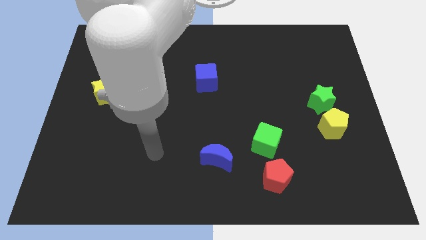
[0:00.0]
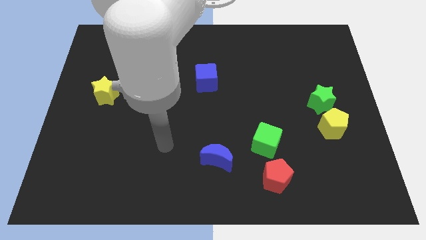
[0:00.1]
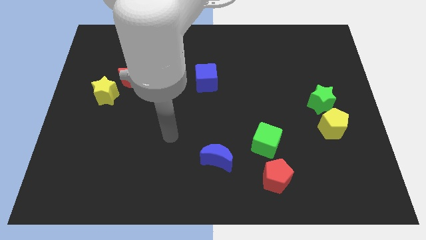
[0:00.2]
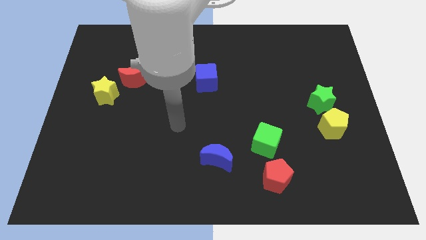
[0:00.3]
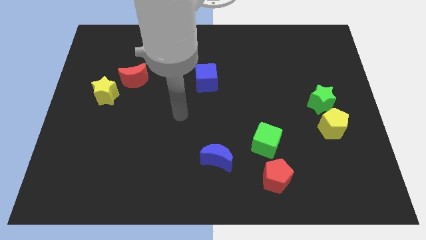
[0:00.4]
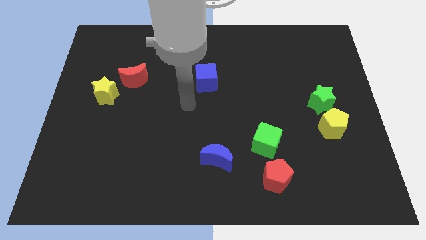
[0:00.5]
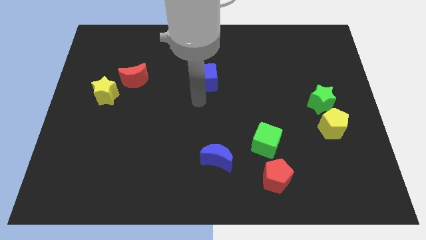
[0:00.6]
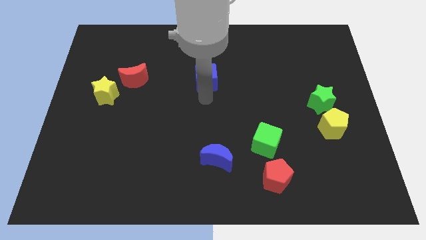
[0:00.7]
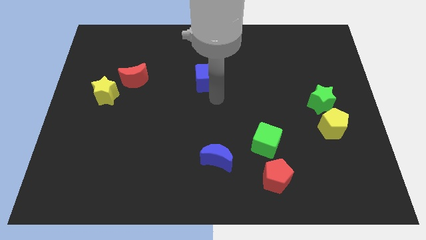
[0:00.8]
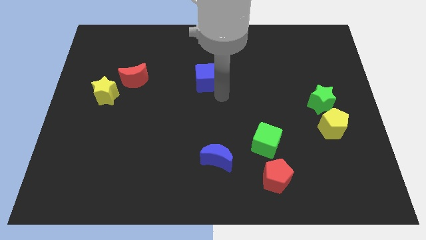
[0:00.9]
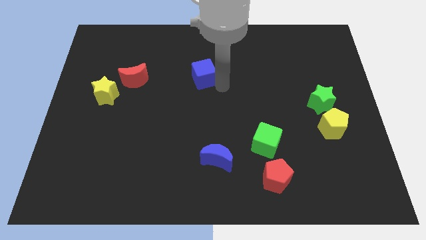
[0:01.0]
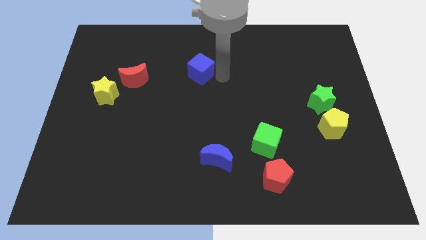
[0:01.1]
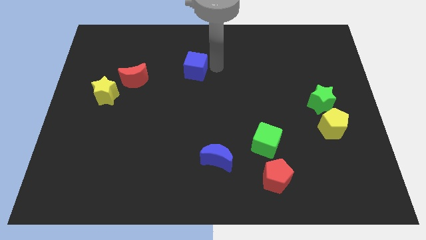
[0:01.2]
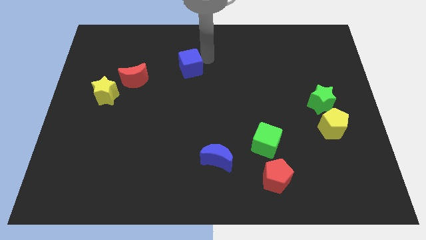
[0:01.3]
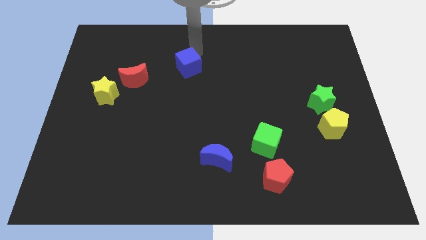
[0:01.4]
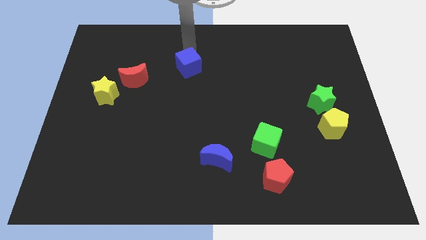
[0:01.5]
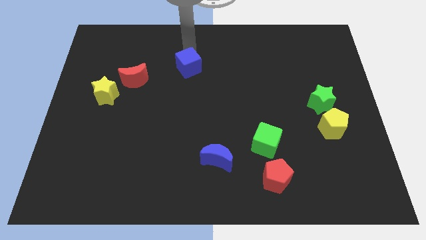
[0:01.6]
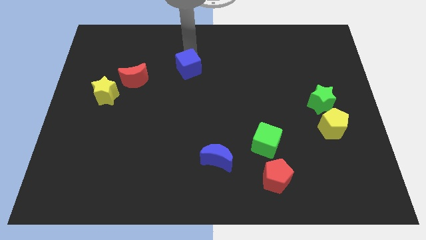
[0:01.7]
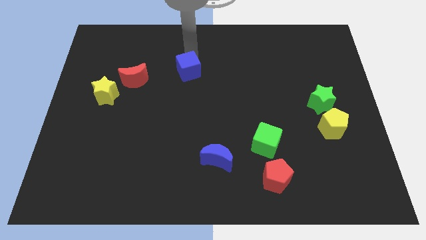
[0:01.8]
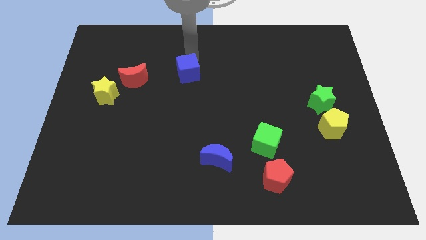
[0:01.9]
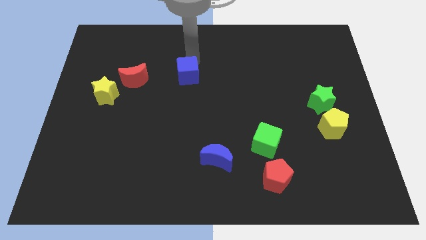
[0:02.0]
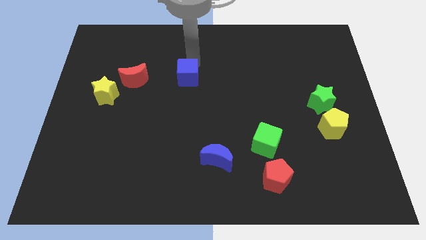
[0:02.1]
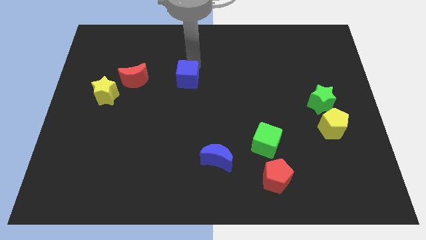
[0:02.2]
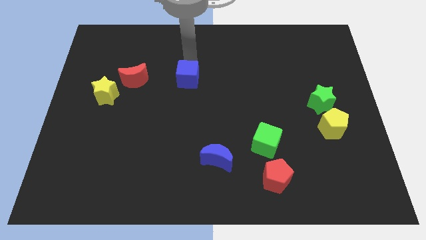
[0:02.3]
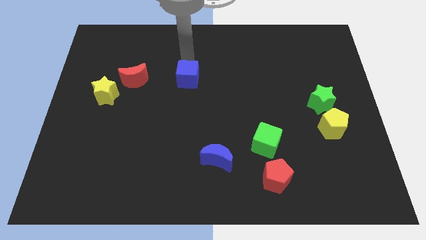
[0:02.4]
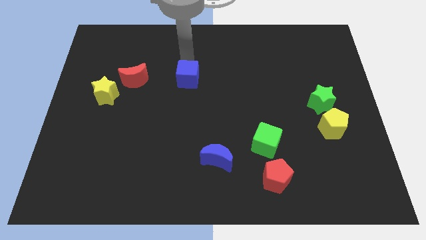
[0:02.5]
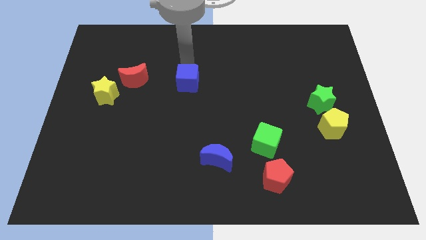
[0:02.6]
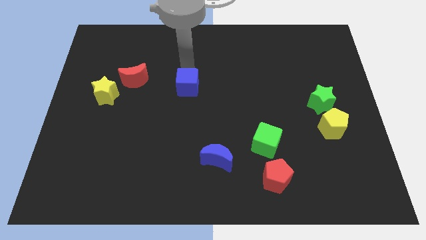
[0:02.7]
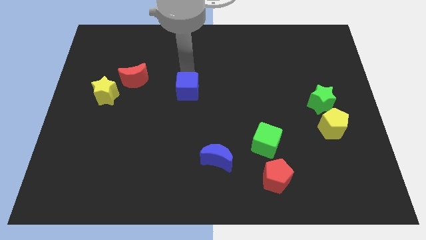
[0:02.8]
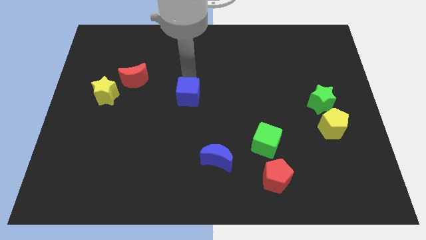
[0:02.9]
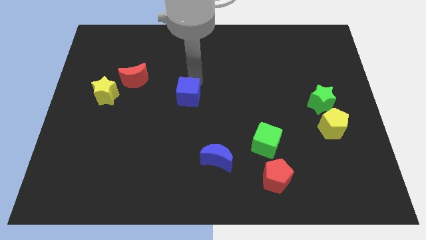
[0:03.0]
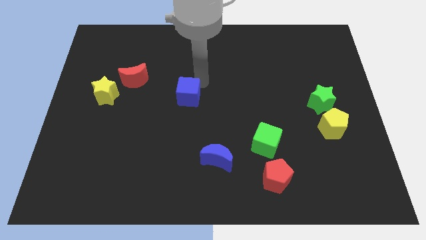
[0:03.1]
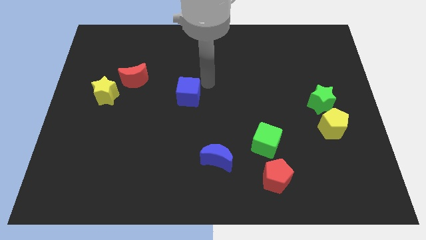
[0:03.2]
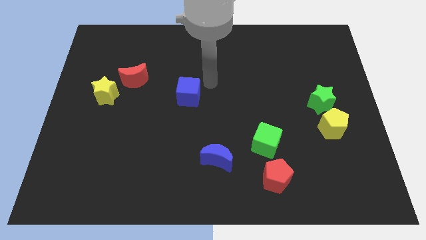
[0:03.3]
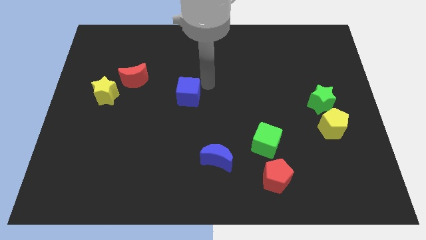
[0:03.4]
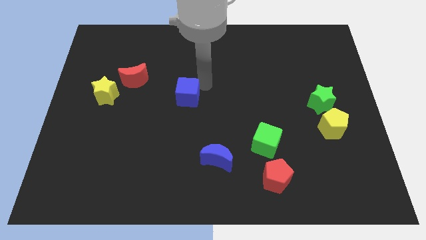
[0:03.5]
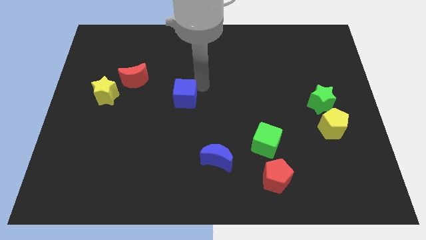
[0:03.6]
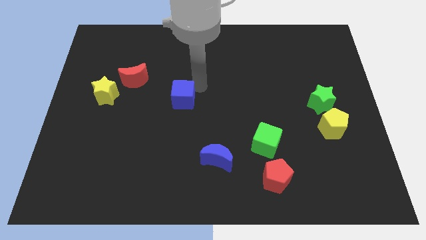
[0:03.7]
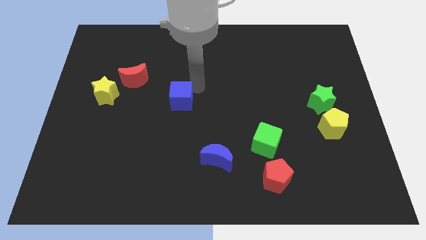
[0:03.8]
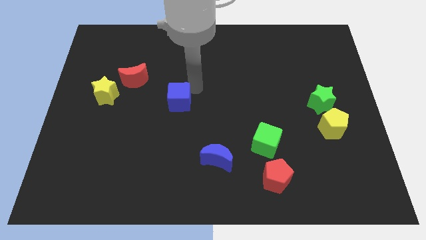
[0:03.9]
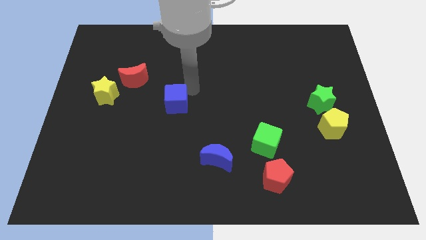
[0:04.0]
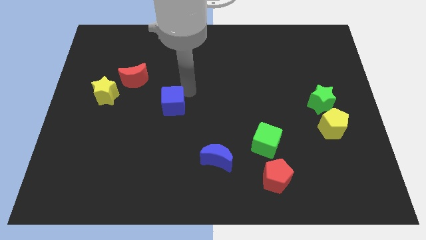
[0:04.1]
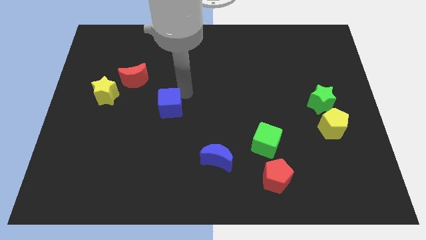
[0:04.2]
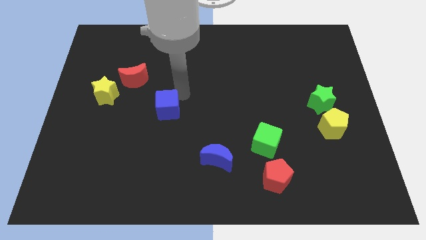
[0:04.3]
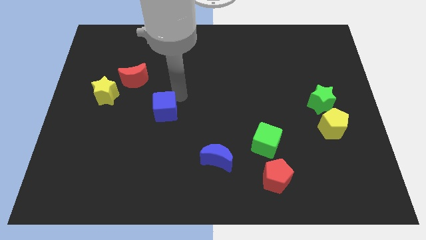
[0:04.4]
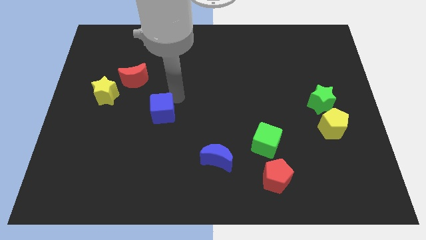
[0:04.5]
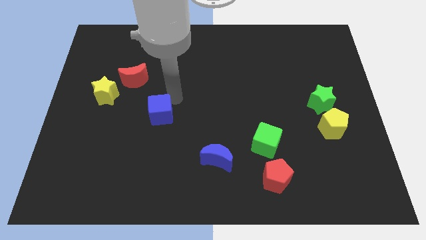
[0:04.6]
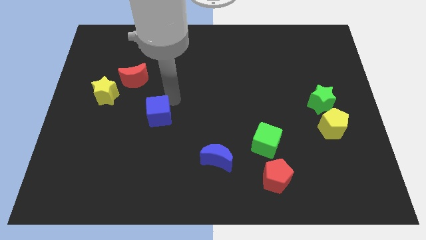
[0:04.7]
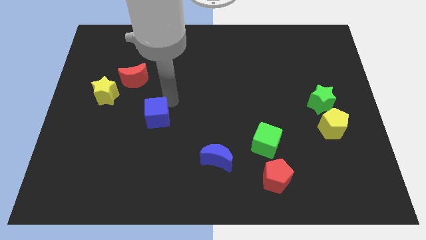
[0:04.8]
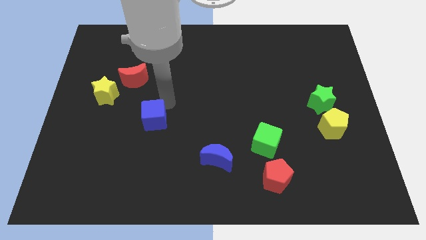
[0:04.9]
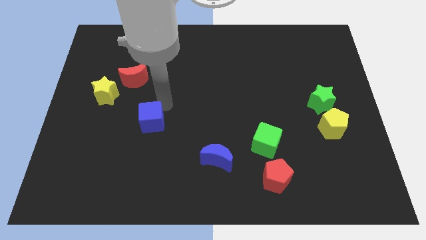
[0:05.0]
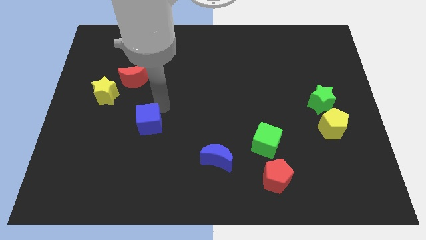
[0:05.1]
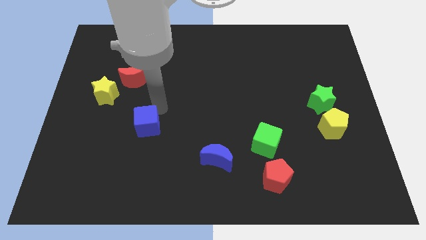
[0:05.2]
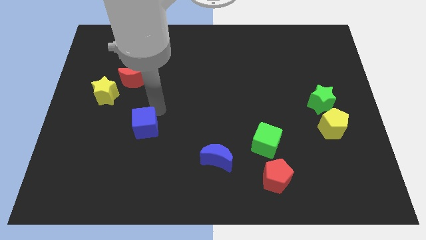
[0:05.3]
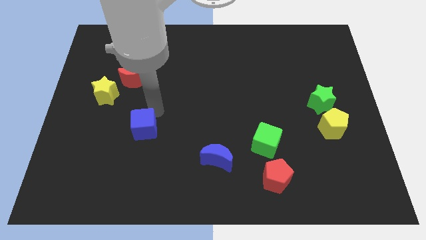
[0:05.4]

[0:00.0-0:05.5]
slide the blue cube down and left diagonally

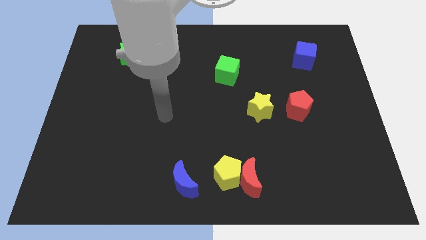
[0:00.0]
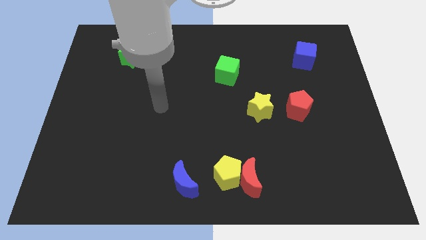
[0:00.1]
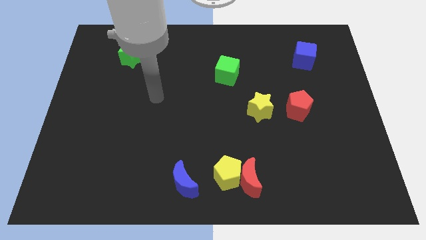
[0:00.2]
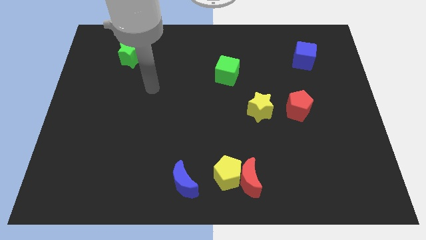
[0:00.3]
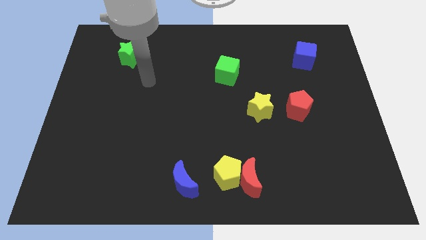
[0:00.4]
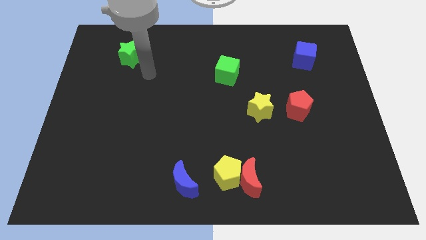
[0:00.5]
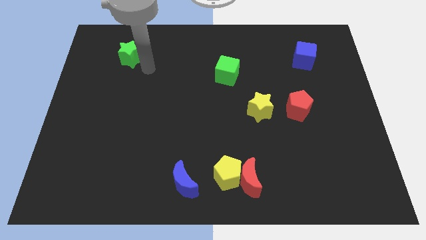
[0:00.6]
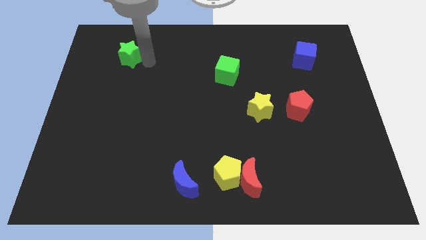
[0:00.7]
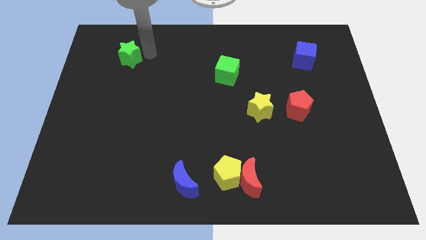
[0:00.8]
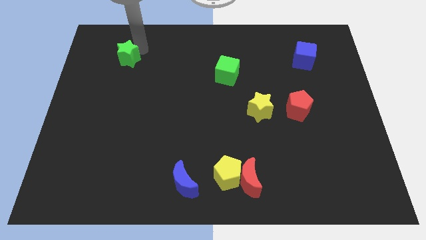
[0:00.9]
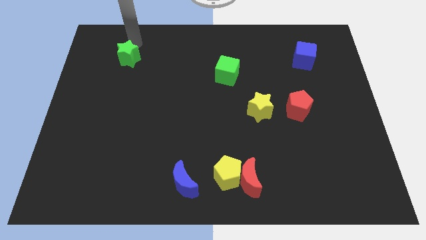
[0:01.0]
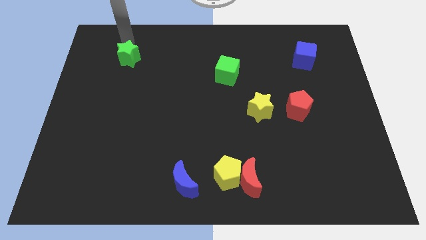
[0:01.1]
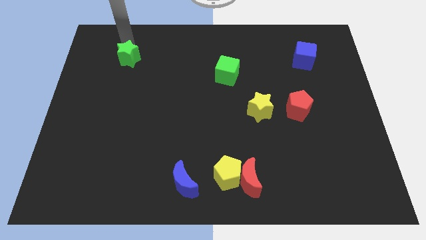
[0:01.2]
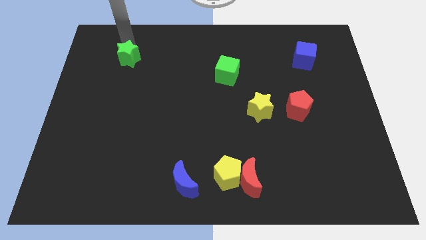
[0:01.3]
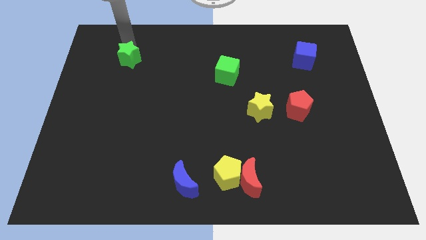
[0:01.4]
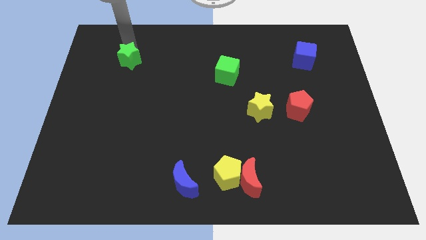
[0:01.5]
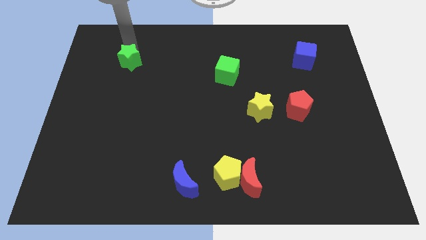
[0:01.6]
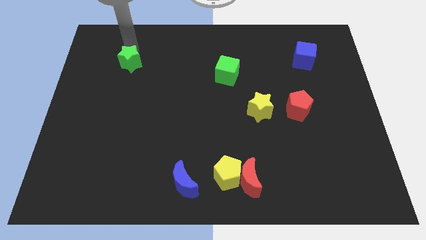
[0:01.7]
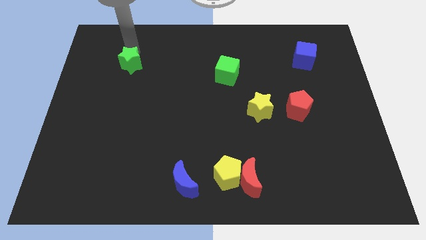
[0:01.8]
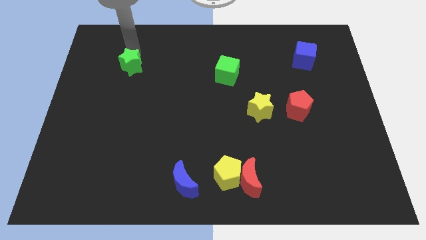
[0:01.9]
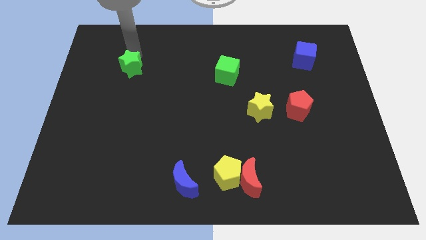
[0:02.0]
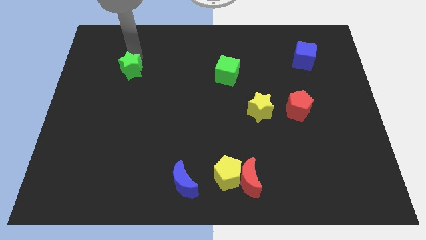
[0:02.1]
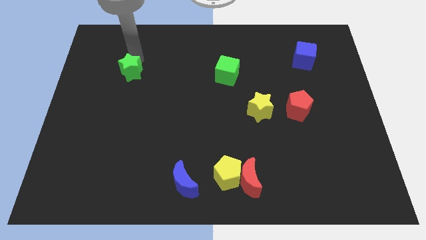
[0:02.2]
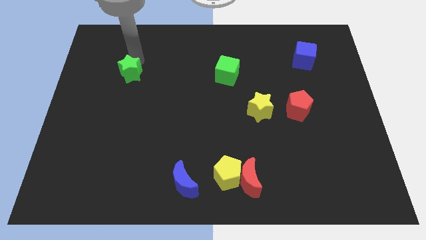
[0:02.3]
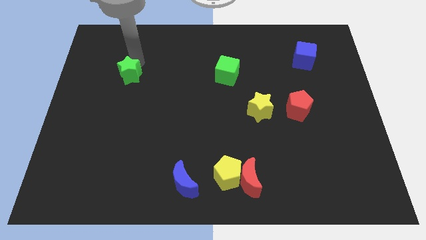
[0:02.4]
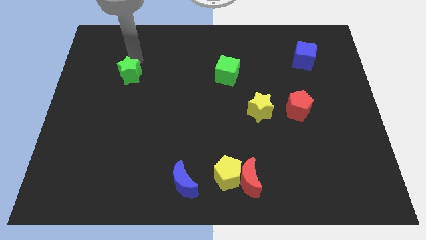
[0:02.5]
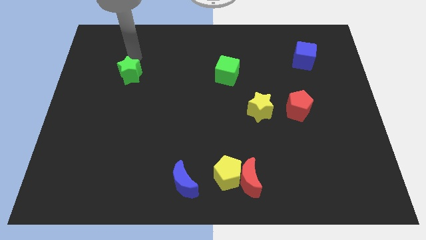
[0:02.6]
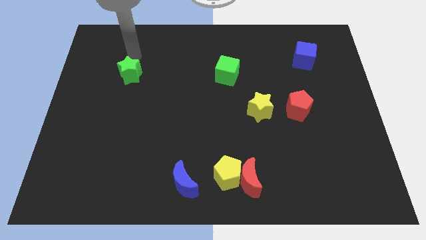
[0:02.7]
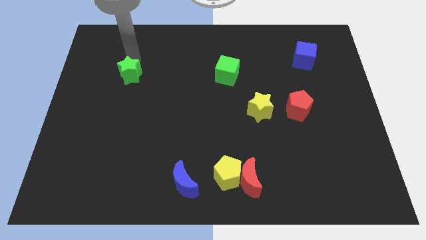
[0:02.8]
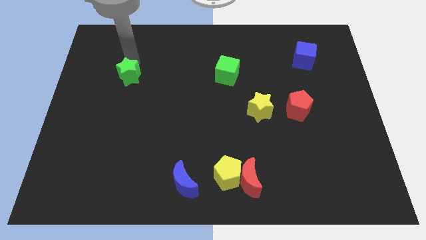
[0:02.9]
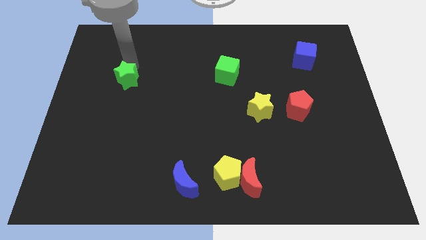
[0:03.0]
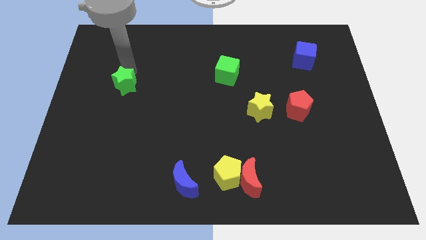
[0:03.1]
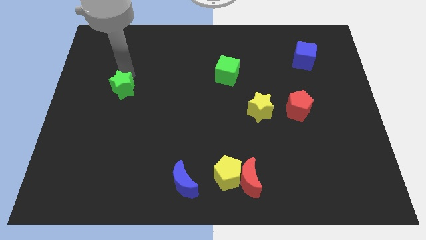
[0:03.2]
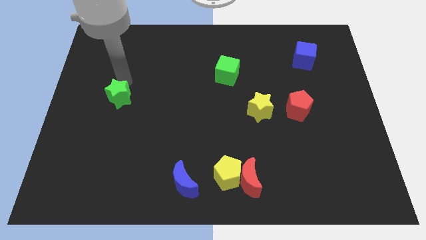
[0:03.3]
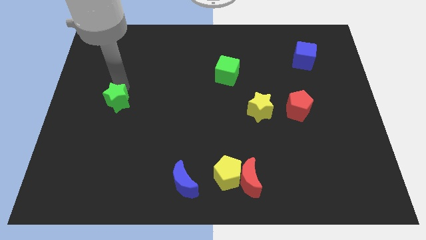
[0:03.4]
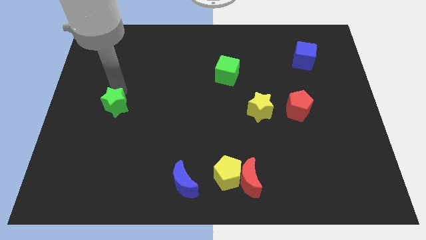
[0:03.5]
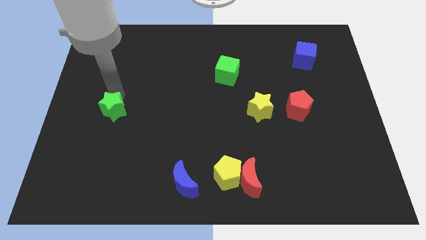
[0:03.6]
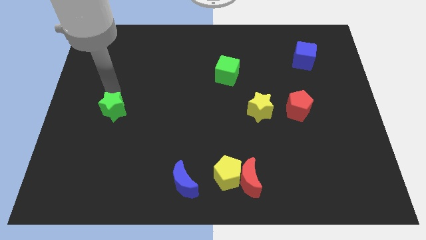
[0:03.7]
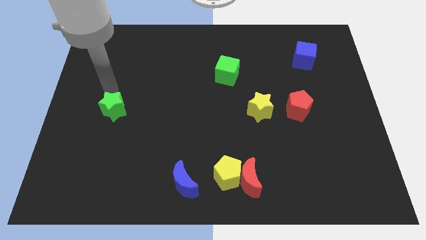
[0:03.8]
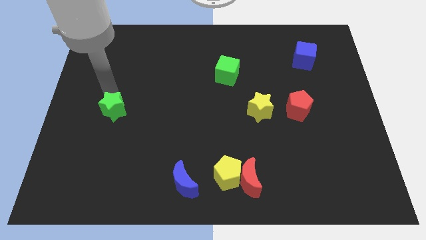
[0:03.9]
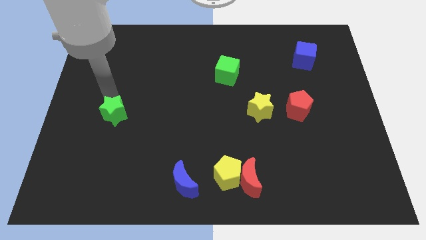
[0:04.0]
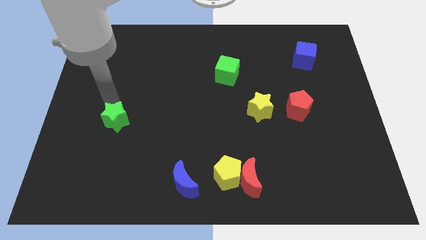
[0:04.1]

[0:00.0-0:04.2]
move the green star down
